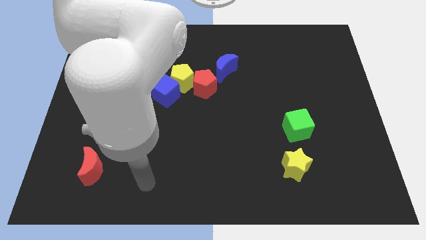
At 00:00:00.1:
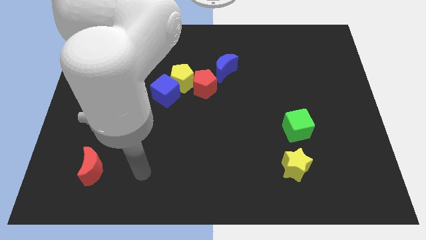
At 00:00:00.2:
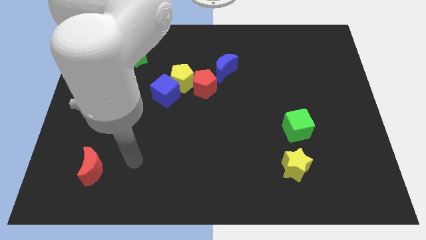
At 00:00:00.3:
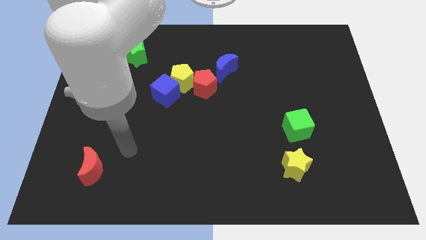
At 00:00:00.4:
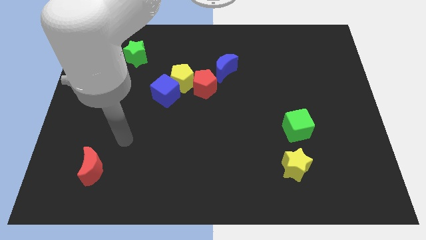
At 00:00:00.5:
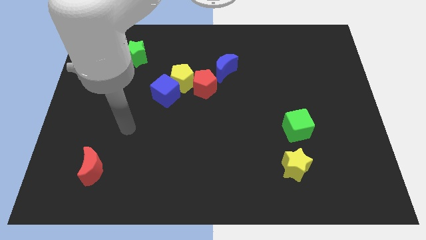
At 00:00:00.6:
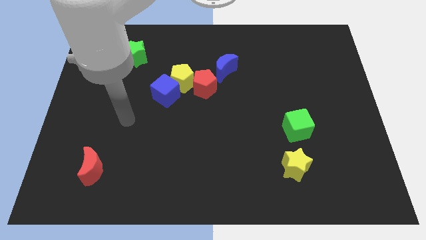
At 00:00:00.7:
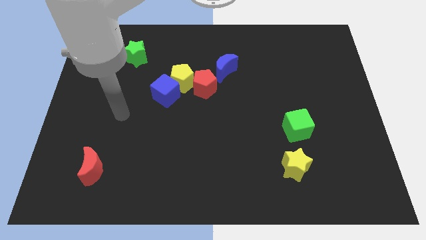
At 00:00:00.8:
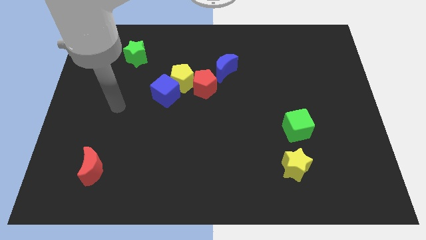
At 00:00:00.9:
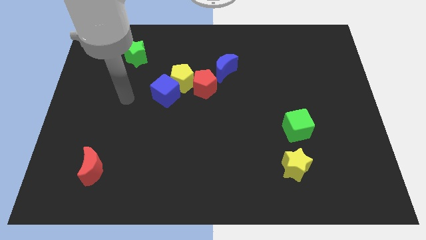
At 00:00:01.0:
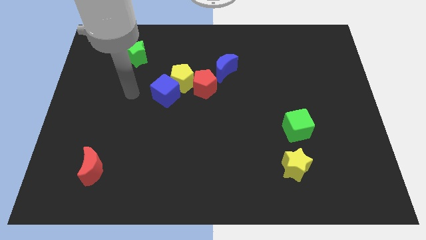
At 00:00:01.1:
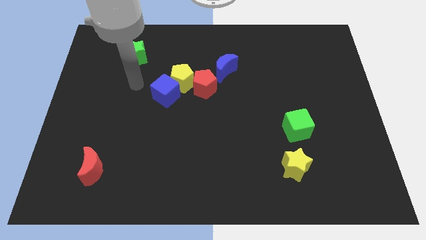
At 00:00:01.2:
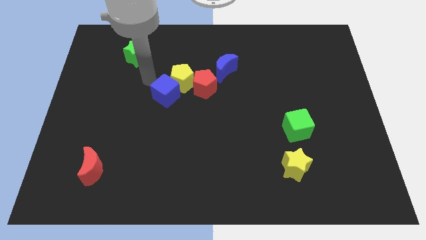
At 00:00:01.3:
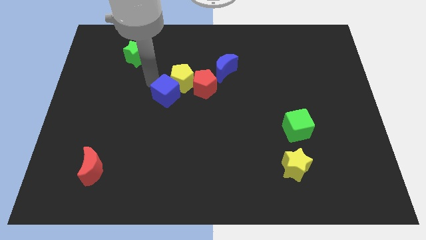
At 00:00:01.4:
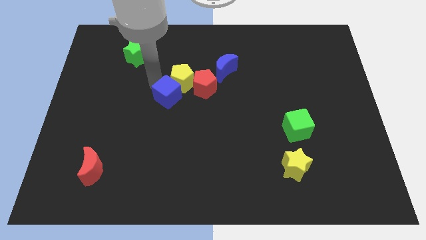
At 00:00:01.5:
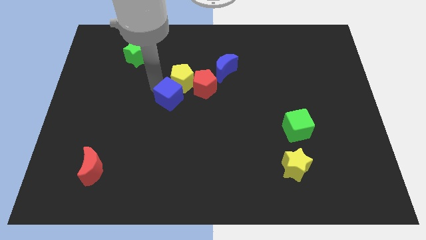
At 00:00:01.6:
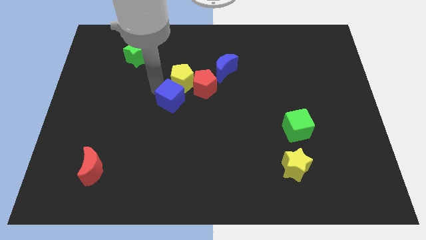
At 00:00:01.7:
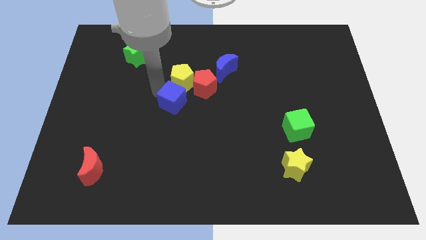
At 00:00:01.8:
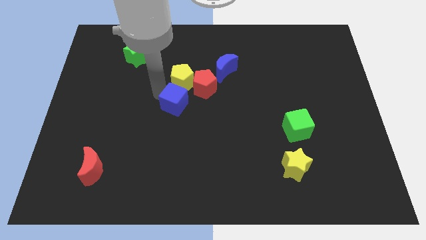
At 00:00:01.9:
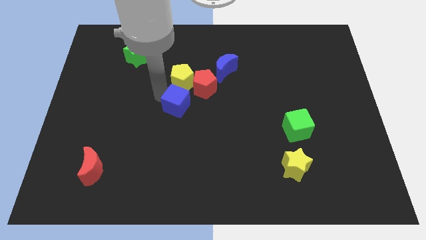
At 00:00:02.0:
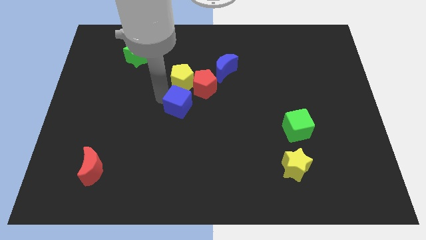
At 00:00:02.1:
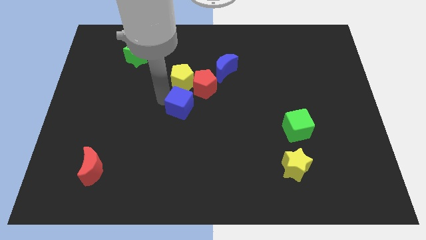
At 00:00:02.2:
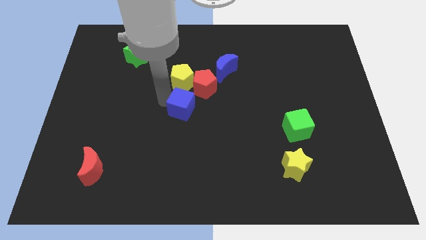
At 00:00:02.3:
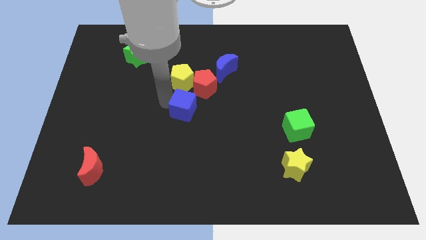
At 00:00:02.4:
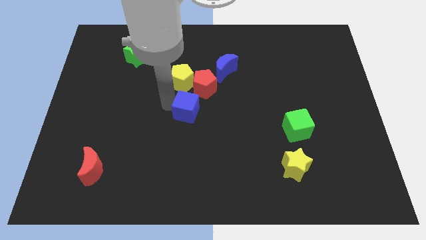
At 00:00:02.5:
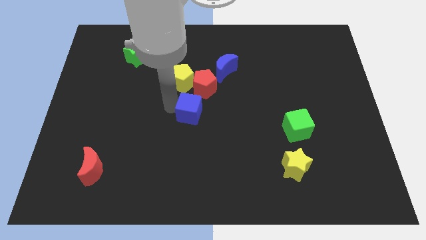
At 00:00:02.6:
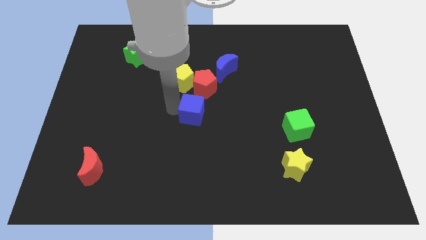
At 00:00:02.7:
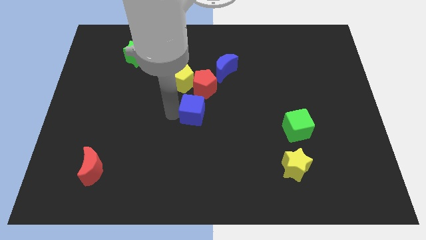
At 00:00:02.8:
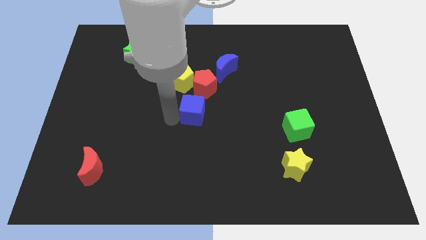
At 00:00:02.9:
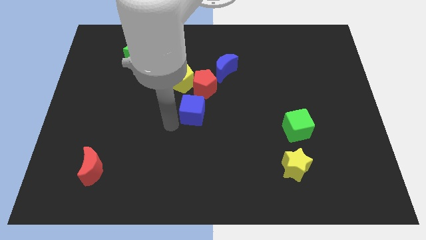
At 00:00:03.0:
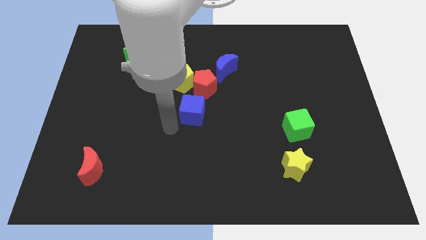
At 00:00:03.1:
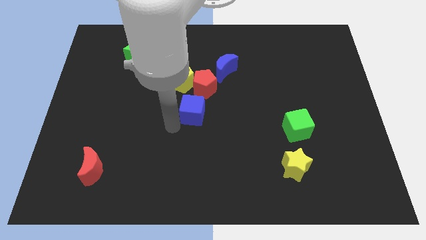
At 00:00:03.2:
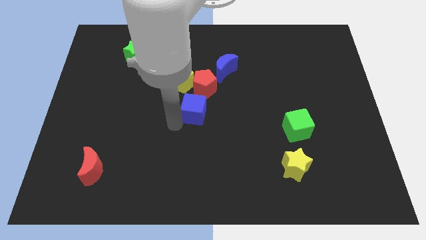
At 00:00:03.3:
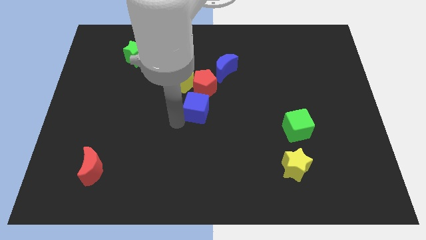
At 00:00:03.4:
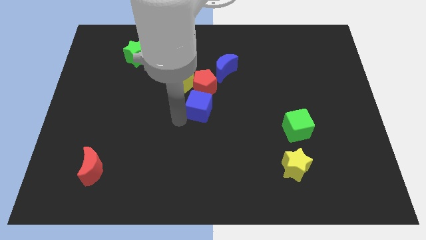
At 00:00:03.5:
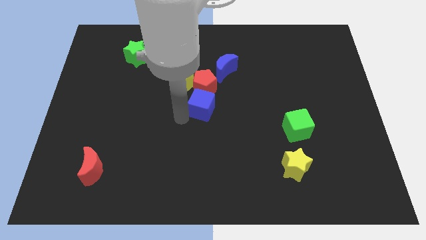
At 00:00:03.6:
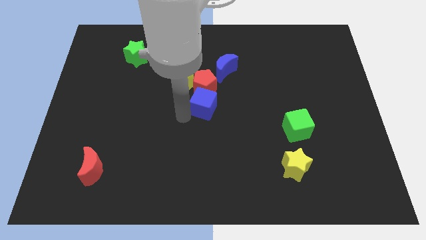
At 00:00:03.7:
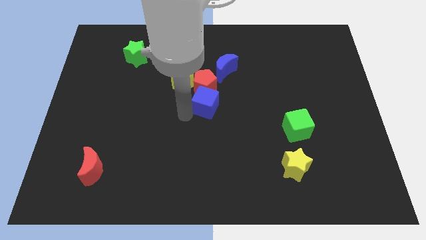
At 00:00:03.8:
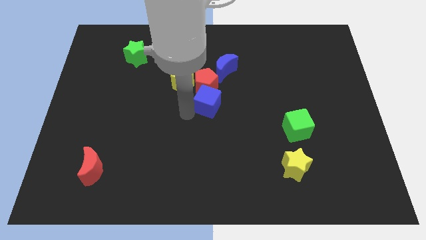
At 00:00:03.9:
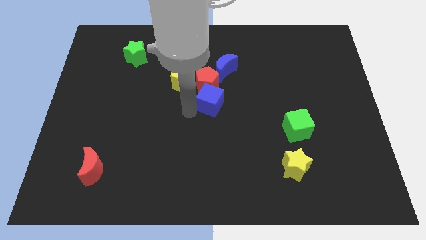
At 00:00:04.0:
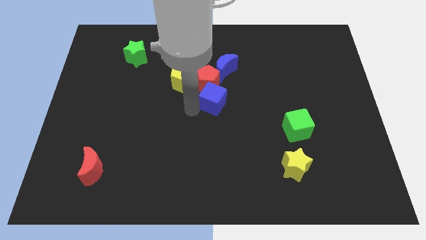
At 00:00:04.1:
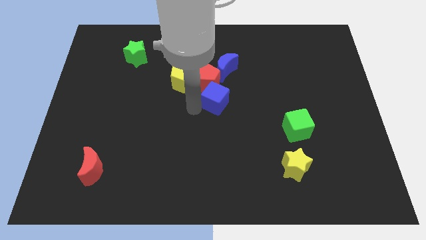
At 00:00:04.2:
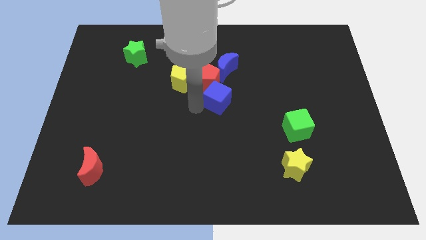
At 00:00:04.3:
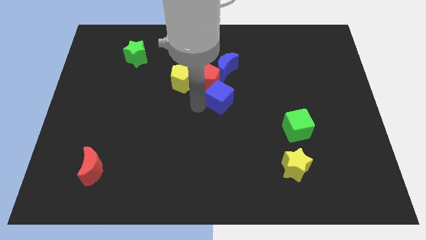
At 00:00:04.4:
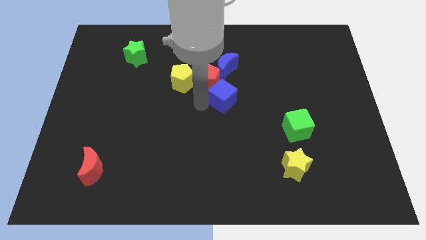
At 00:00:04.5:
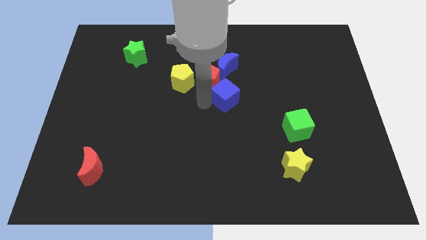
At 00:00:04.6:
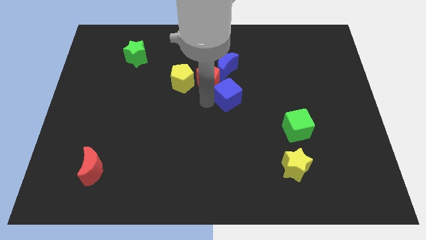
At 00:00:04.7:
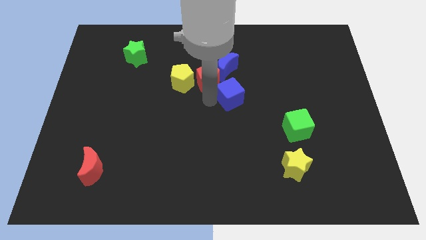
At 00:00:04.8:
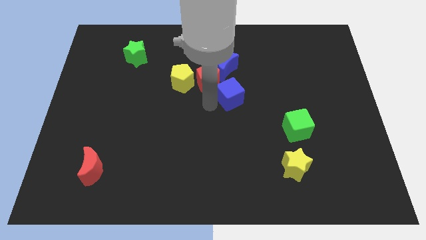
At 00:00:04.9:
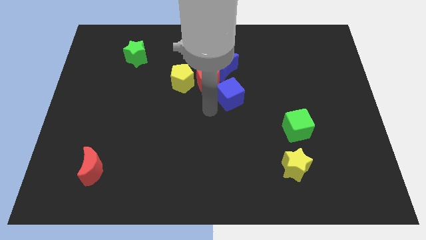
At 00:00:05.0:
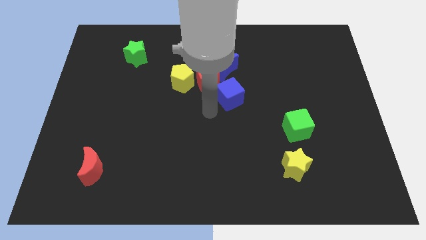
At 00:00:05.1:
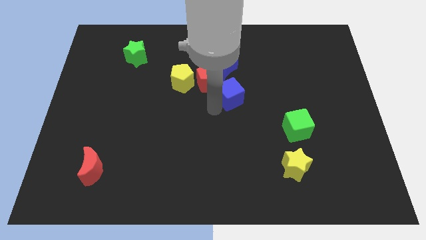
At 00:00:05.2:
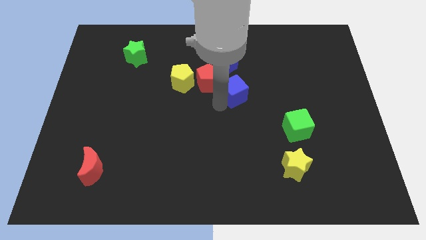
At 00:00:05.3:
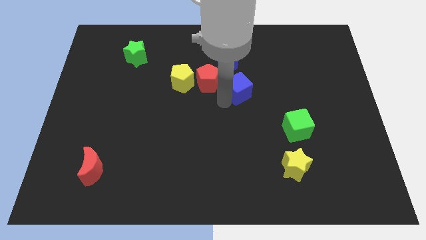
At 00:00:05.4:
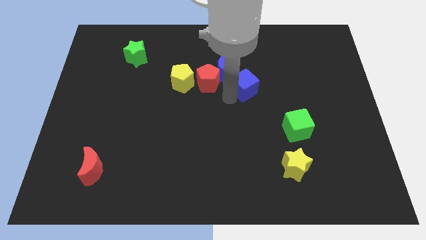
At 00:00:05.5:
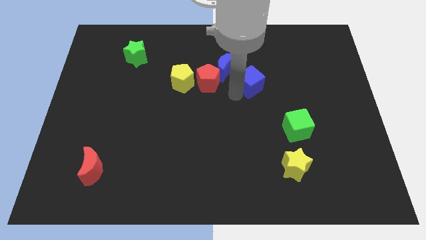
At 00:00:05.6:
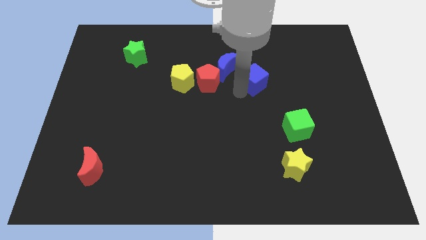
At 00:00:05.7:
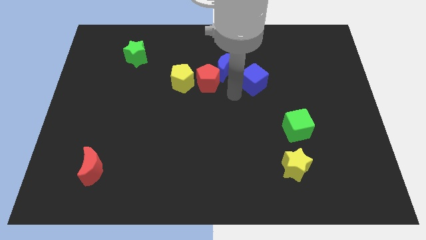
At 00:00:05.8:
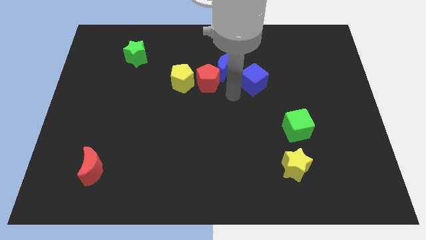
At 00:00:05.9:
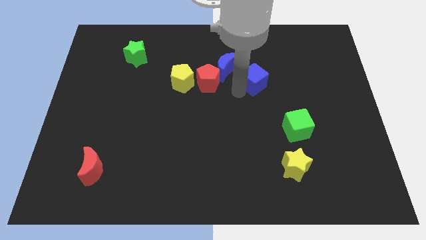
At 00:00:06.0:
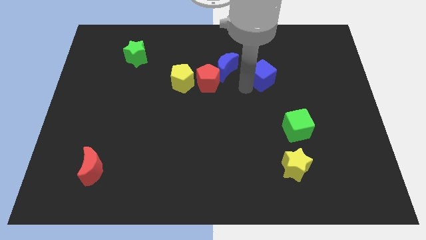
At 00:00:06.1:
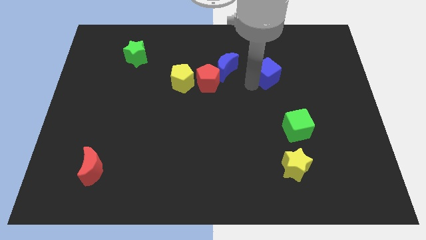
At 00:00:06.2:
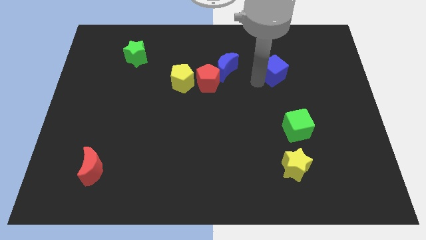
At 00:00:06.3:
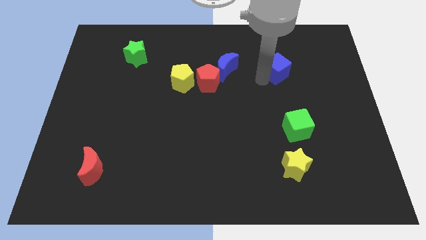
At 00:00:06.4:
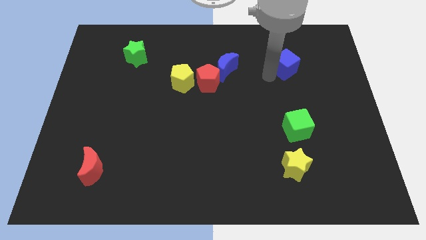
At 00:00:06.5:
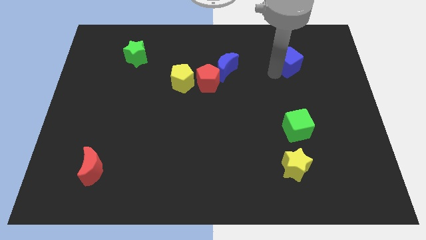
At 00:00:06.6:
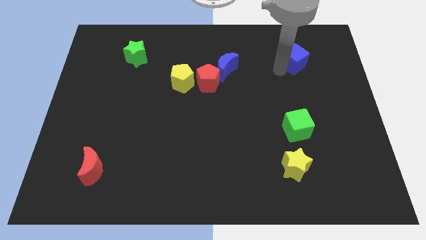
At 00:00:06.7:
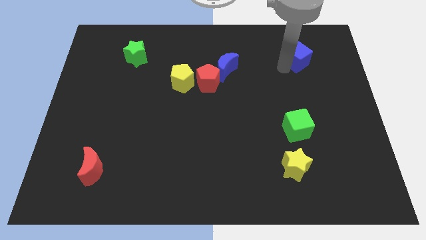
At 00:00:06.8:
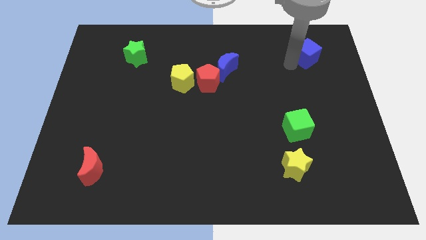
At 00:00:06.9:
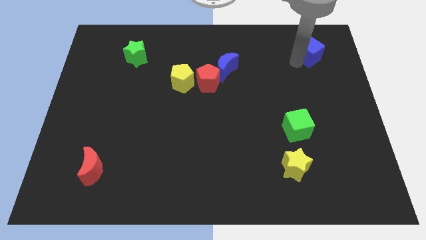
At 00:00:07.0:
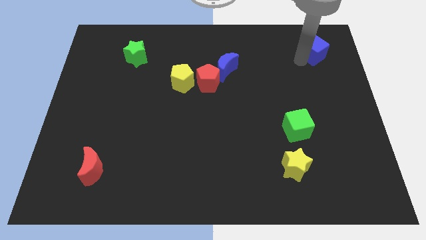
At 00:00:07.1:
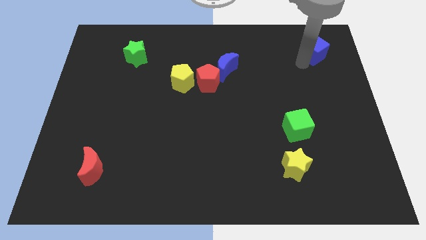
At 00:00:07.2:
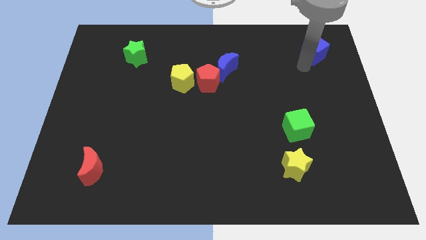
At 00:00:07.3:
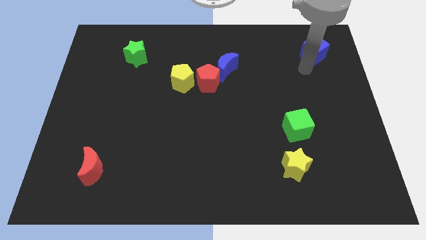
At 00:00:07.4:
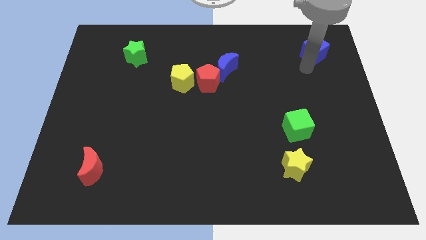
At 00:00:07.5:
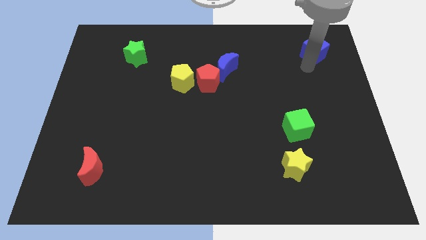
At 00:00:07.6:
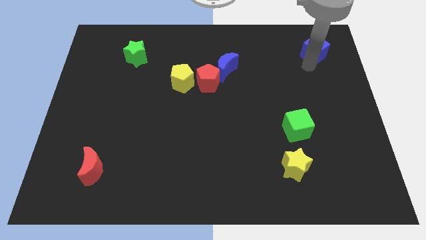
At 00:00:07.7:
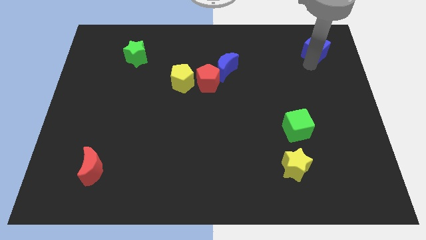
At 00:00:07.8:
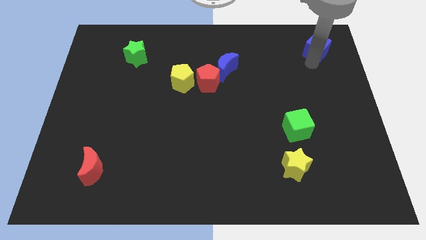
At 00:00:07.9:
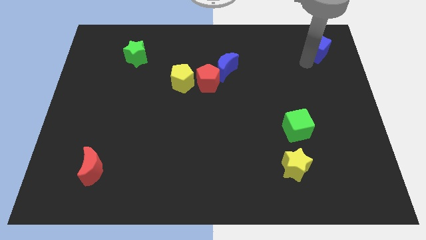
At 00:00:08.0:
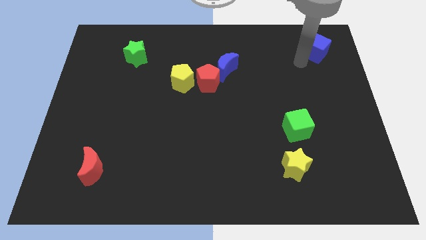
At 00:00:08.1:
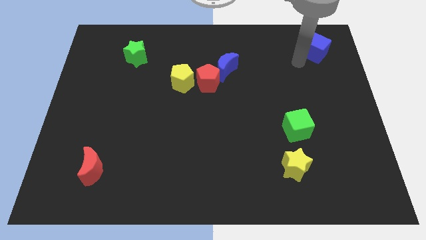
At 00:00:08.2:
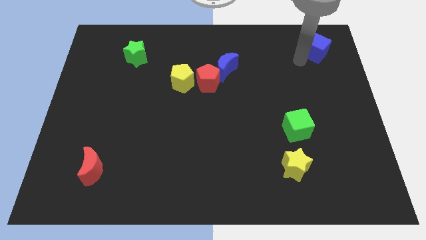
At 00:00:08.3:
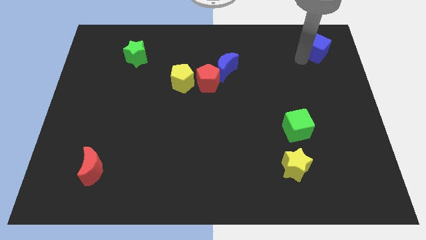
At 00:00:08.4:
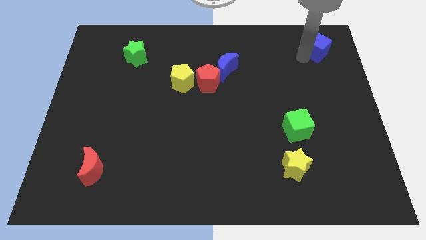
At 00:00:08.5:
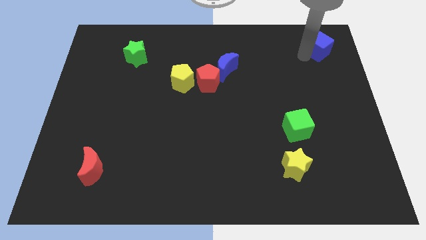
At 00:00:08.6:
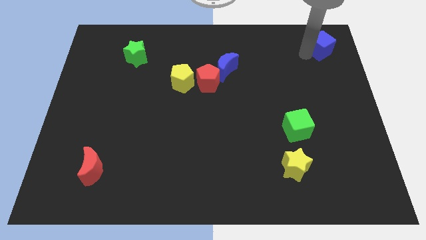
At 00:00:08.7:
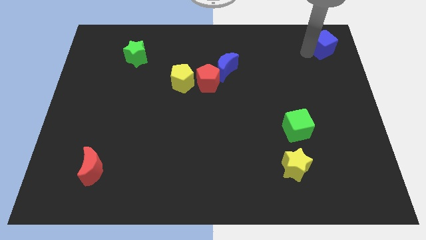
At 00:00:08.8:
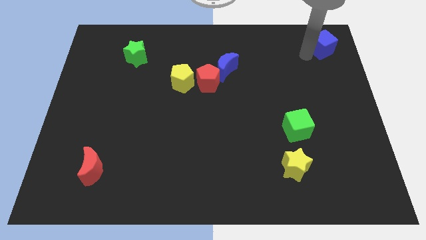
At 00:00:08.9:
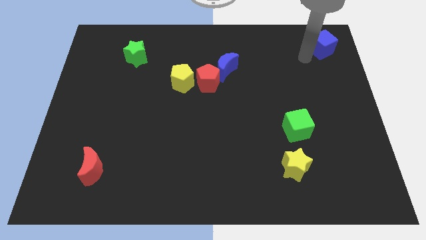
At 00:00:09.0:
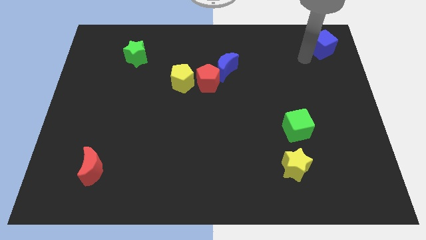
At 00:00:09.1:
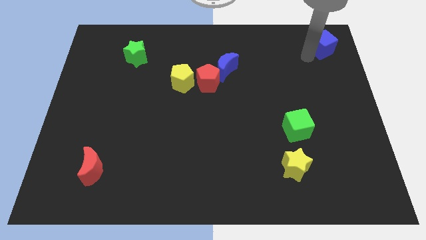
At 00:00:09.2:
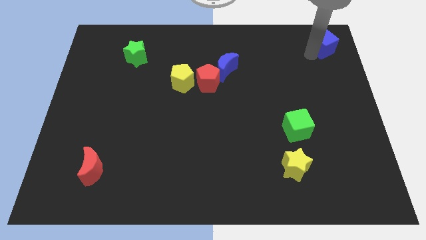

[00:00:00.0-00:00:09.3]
push the blue cube to the top right
